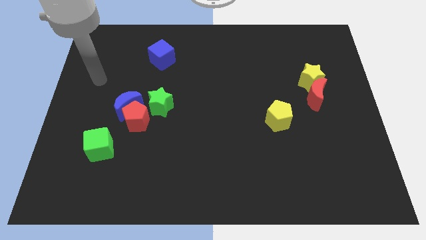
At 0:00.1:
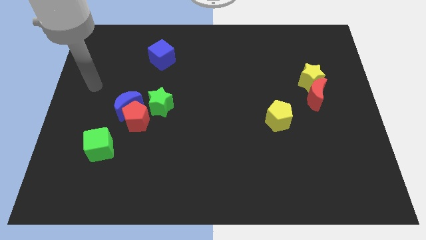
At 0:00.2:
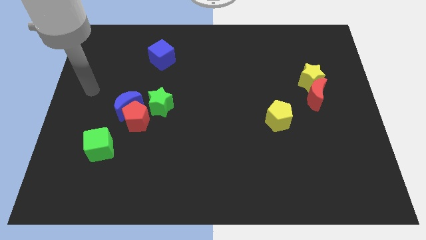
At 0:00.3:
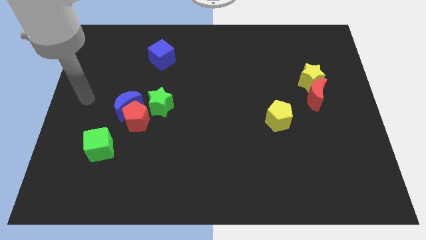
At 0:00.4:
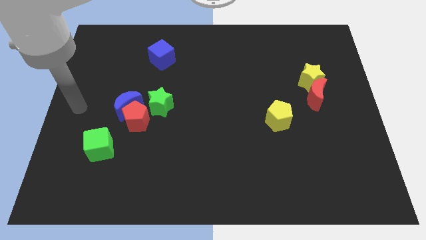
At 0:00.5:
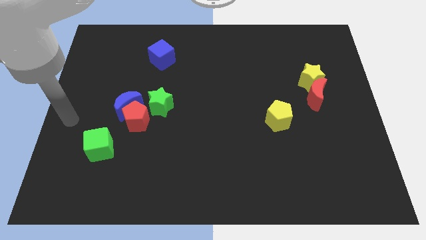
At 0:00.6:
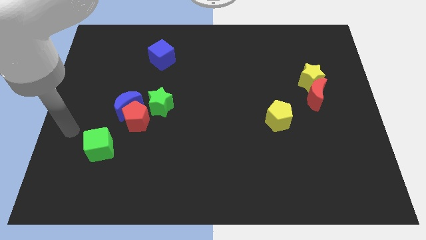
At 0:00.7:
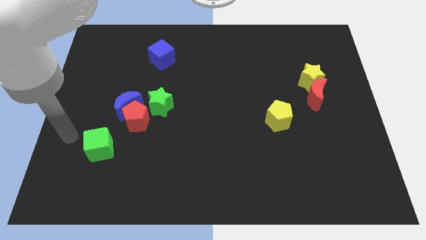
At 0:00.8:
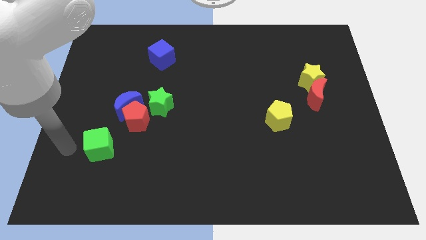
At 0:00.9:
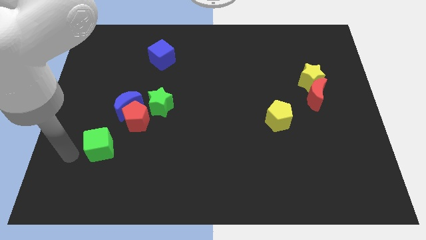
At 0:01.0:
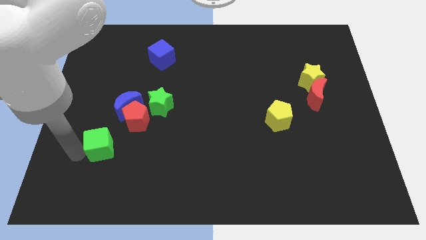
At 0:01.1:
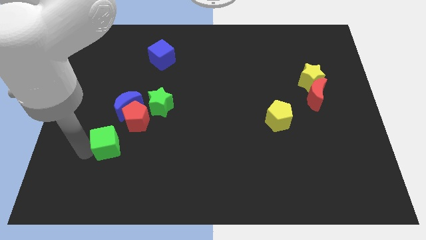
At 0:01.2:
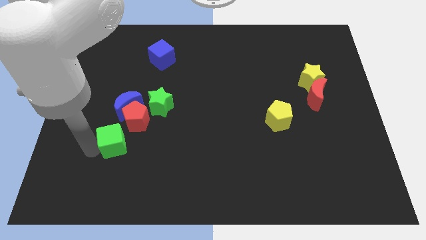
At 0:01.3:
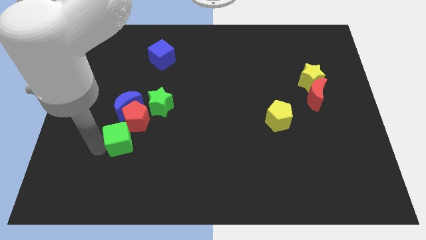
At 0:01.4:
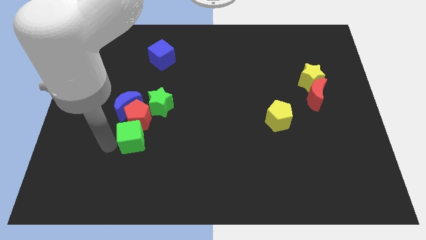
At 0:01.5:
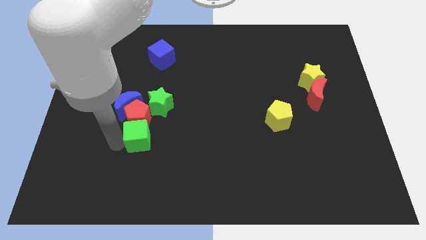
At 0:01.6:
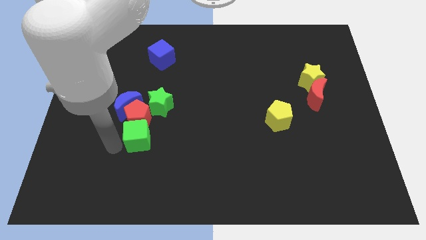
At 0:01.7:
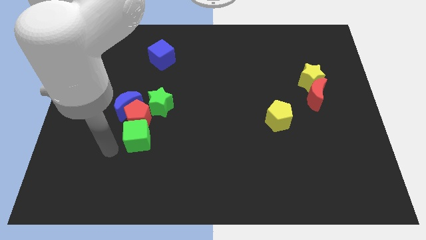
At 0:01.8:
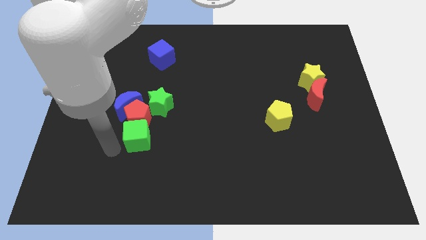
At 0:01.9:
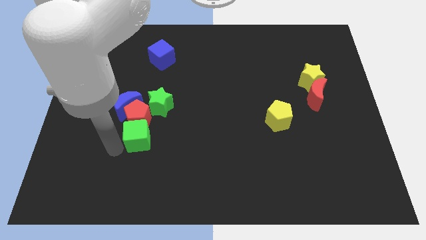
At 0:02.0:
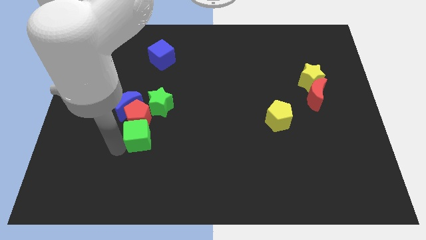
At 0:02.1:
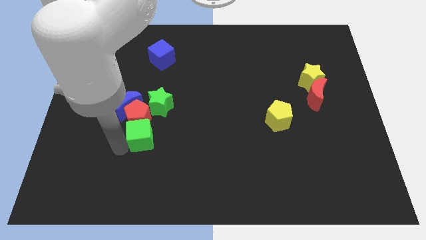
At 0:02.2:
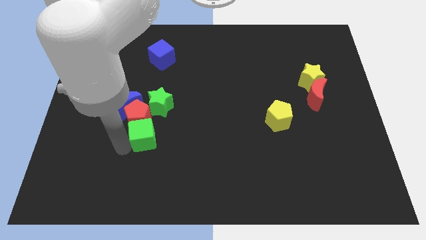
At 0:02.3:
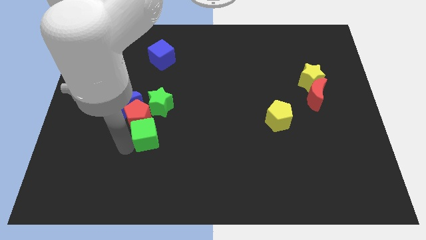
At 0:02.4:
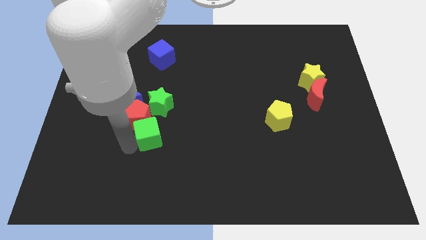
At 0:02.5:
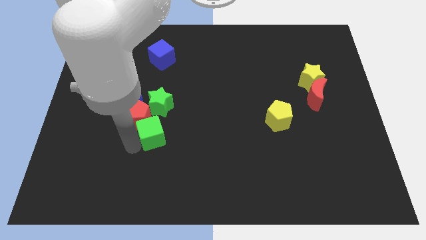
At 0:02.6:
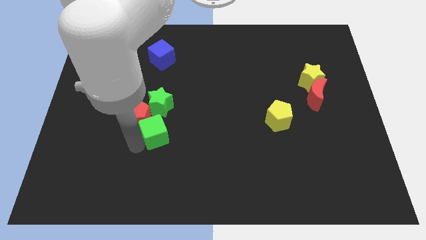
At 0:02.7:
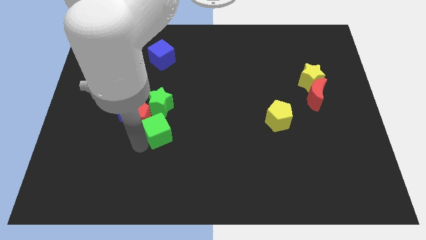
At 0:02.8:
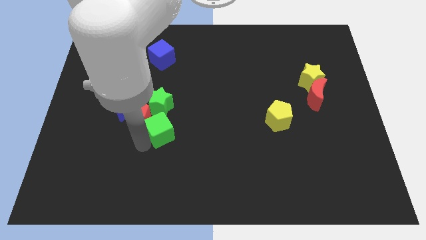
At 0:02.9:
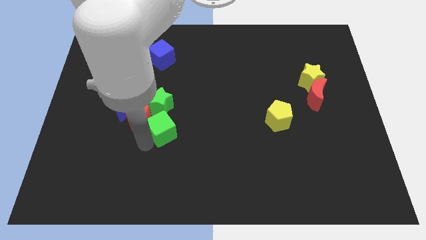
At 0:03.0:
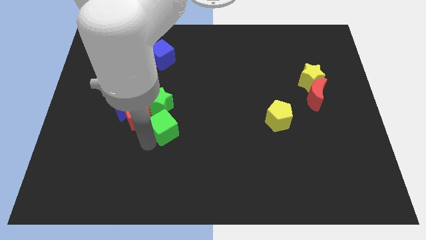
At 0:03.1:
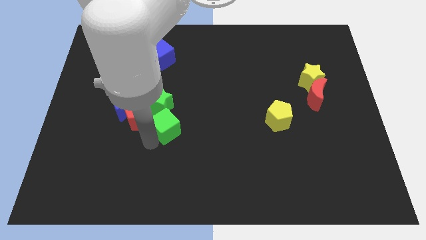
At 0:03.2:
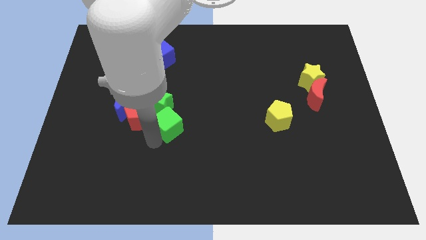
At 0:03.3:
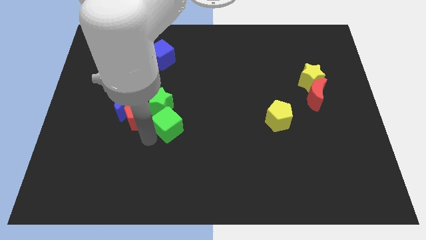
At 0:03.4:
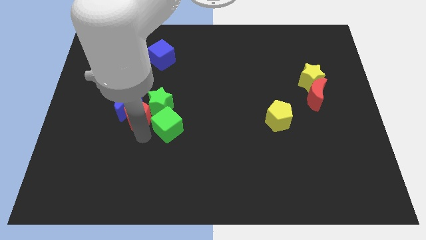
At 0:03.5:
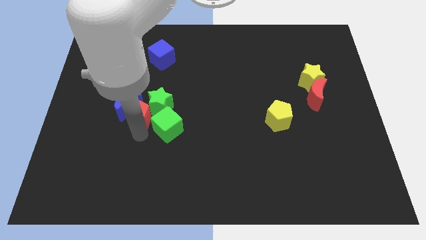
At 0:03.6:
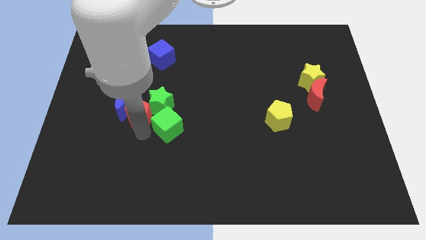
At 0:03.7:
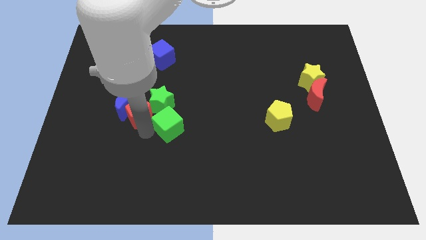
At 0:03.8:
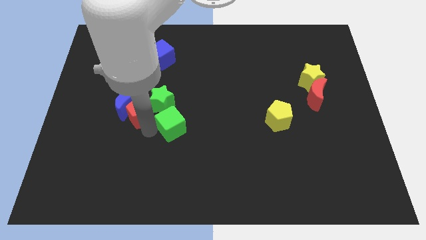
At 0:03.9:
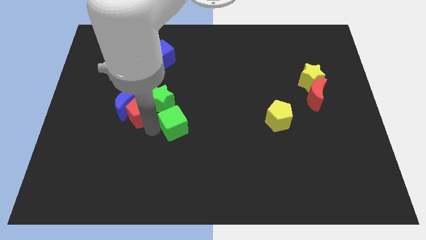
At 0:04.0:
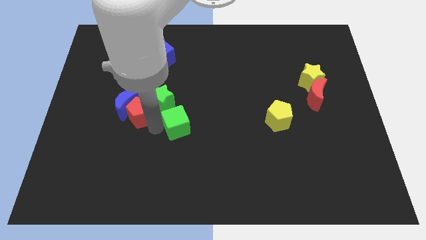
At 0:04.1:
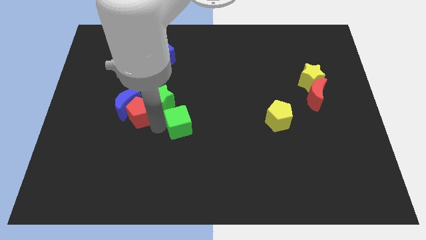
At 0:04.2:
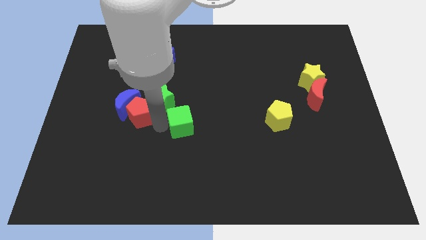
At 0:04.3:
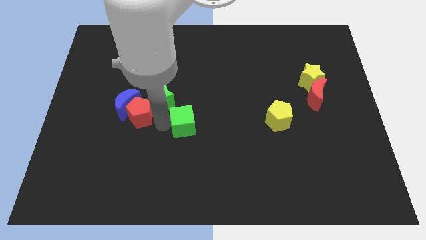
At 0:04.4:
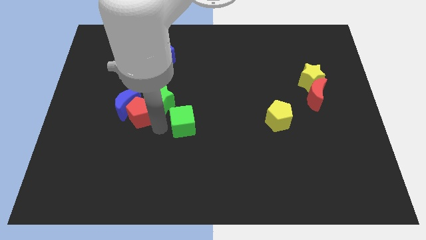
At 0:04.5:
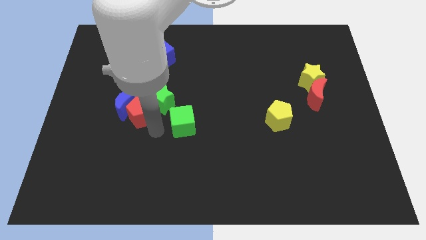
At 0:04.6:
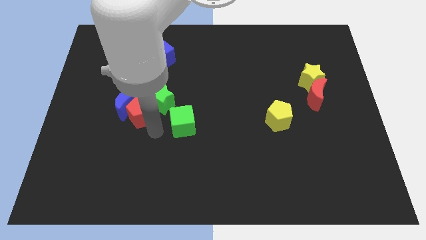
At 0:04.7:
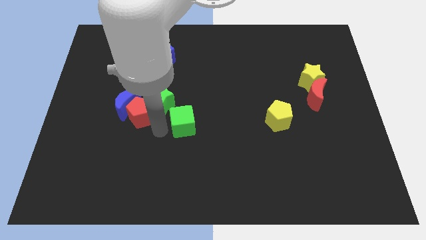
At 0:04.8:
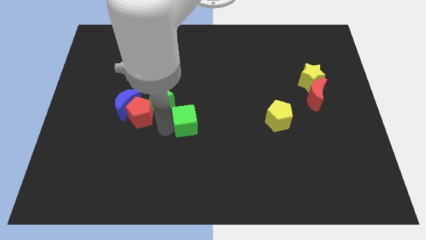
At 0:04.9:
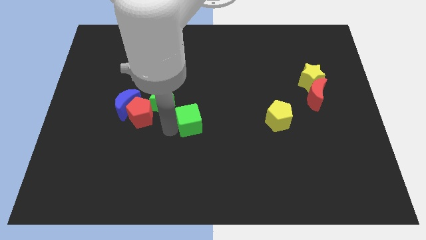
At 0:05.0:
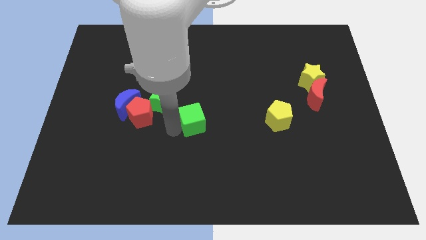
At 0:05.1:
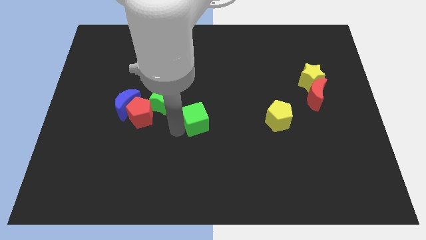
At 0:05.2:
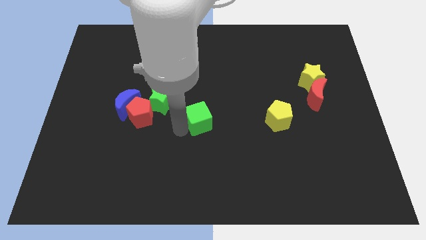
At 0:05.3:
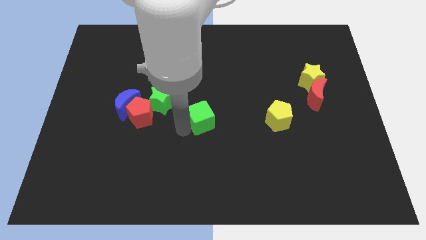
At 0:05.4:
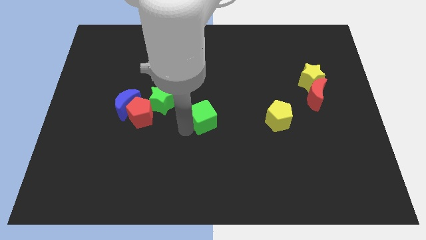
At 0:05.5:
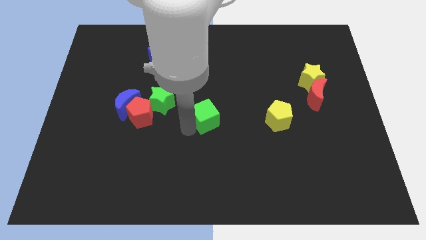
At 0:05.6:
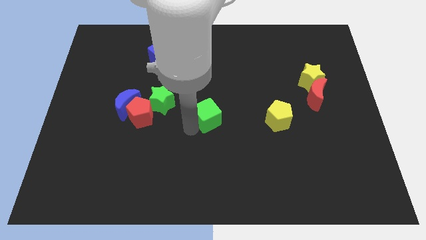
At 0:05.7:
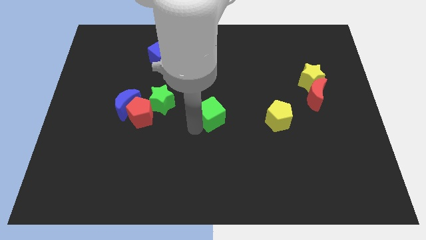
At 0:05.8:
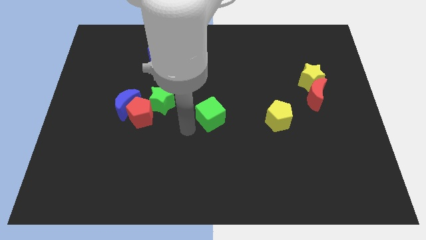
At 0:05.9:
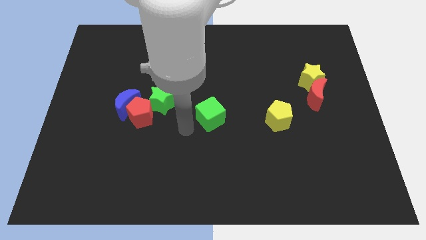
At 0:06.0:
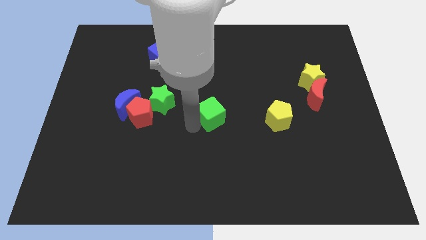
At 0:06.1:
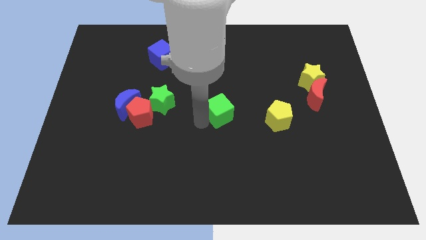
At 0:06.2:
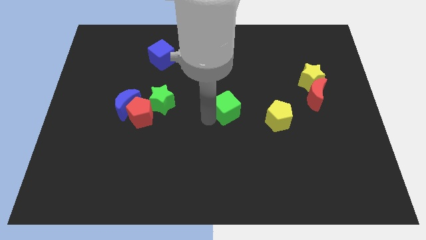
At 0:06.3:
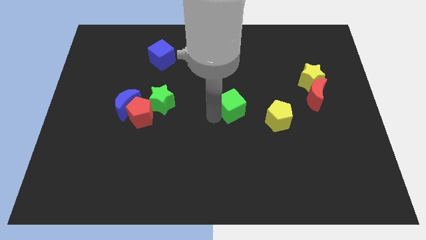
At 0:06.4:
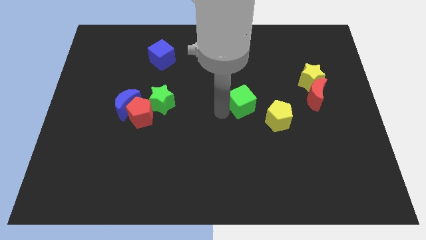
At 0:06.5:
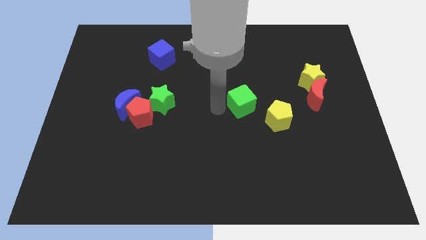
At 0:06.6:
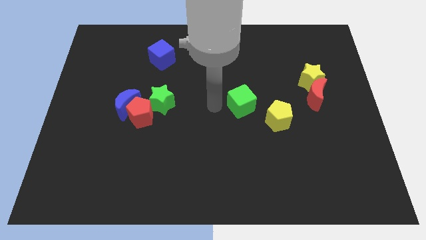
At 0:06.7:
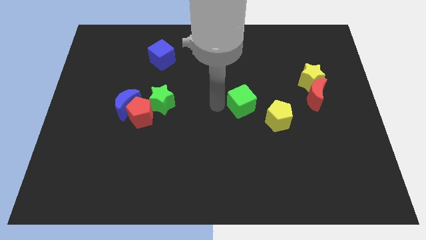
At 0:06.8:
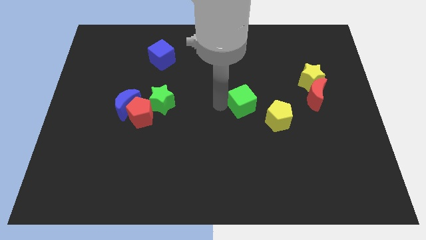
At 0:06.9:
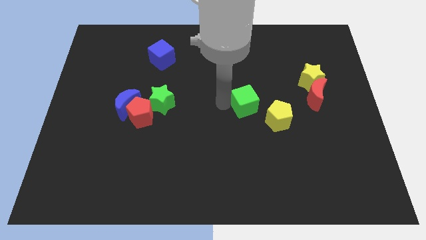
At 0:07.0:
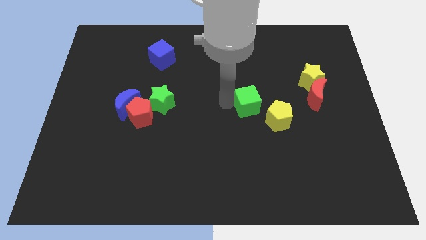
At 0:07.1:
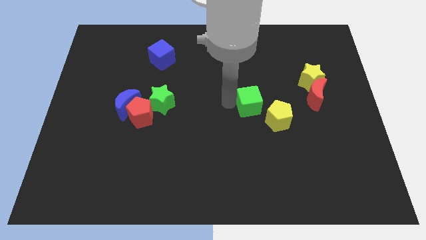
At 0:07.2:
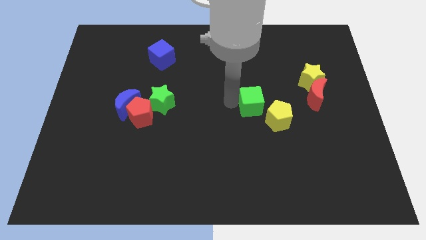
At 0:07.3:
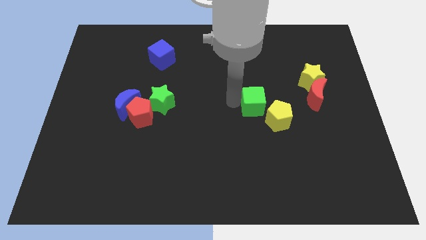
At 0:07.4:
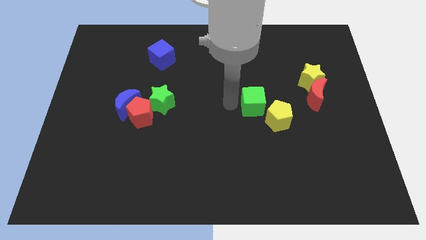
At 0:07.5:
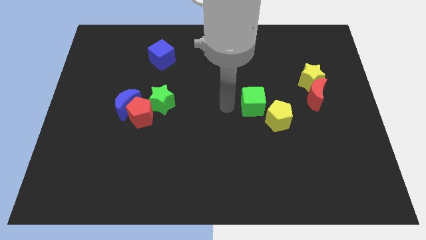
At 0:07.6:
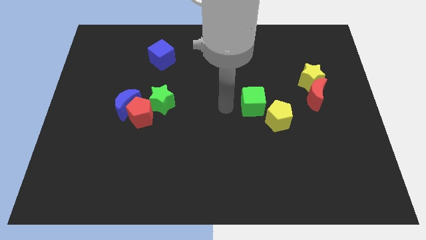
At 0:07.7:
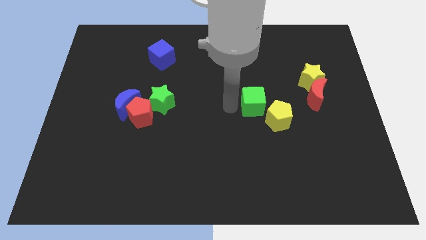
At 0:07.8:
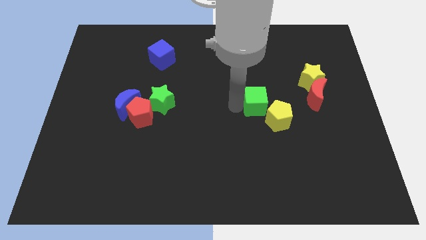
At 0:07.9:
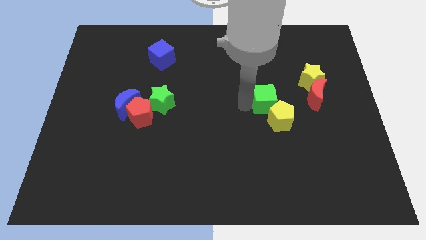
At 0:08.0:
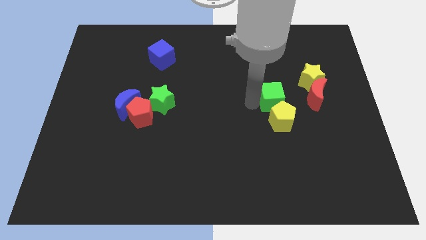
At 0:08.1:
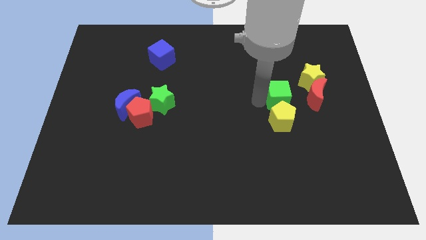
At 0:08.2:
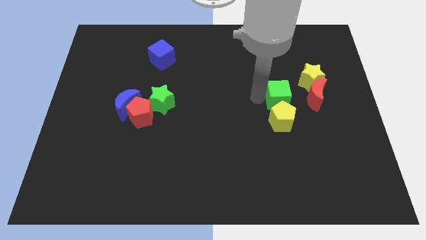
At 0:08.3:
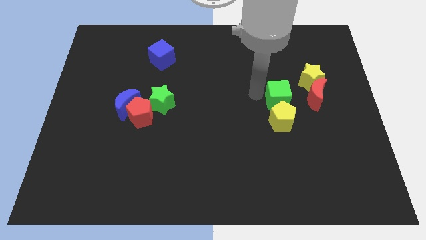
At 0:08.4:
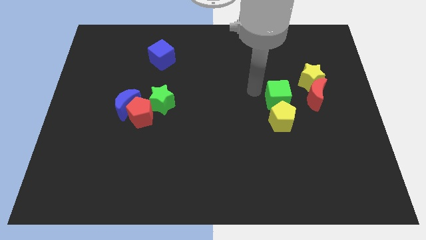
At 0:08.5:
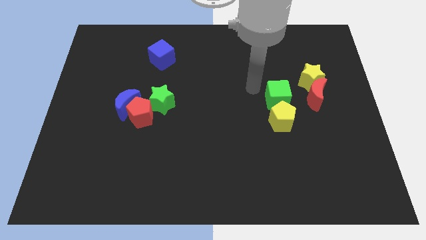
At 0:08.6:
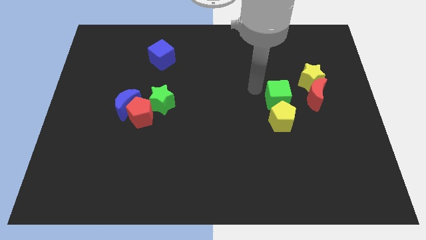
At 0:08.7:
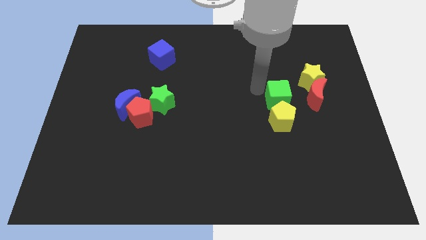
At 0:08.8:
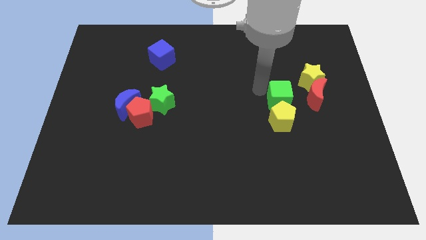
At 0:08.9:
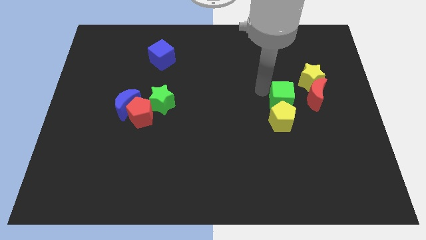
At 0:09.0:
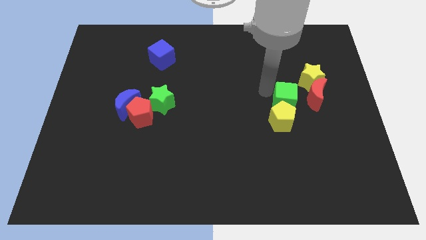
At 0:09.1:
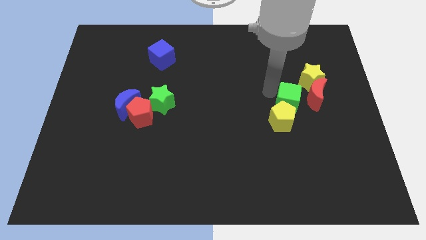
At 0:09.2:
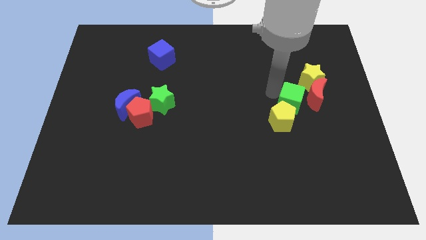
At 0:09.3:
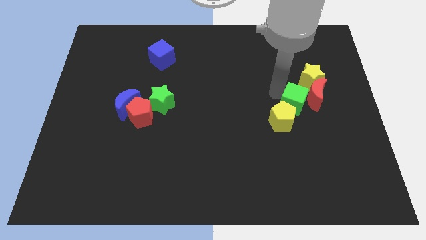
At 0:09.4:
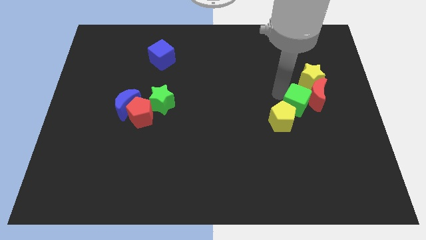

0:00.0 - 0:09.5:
put the green cube to the bottom of the yellow star
